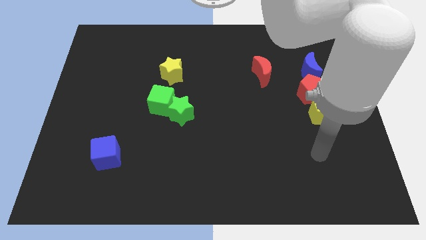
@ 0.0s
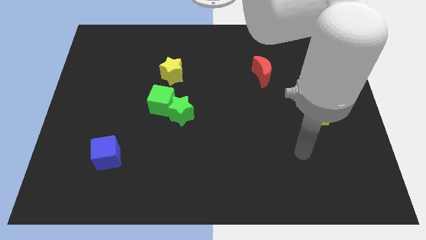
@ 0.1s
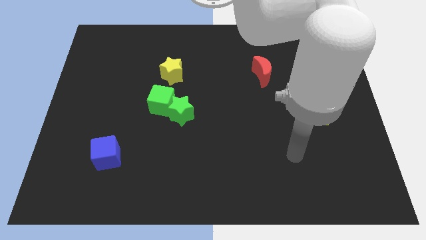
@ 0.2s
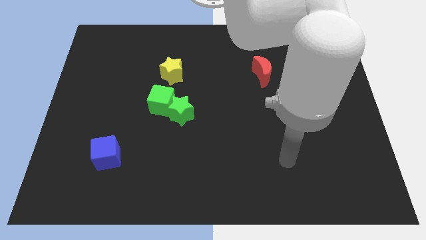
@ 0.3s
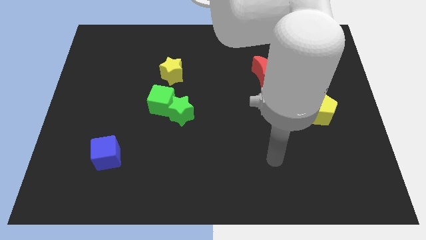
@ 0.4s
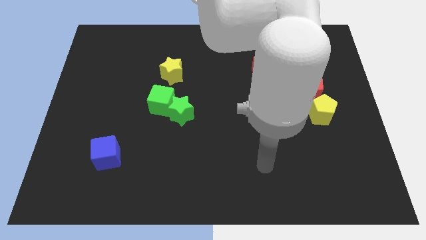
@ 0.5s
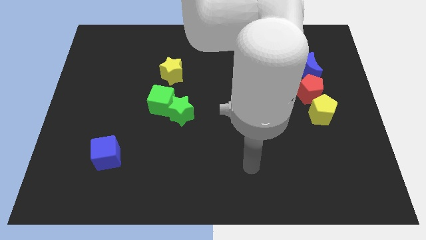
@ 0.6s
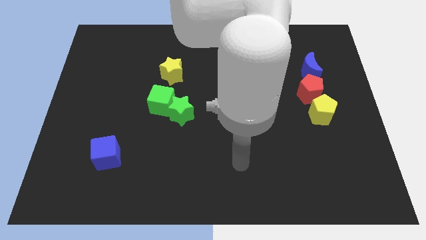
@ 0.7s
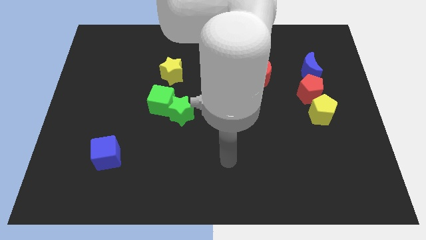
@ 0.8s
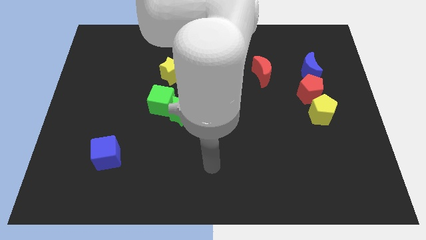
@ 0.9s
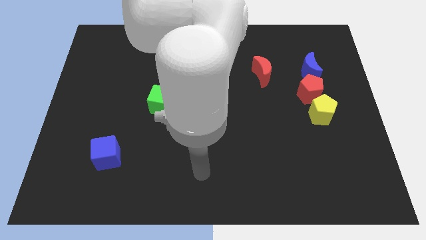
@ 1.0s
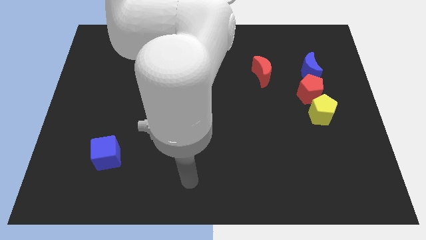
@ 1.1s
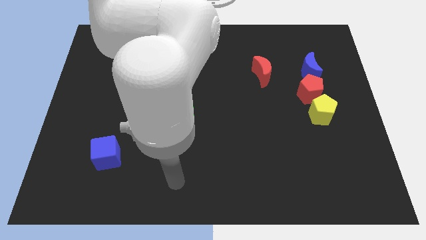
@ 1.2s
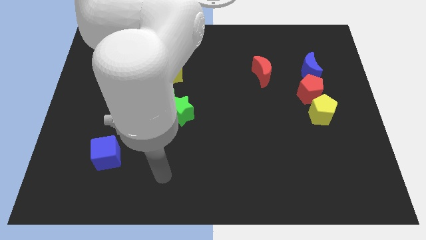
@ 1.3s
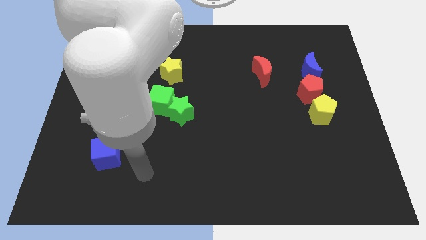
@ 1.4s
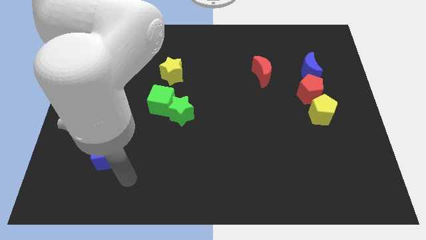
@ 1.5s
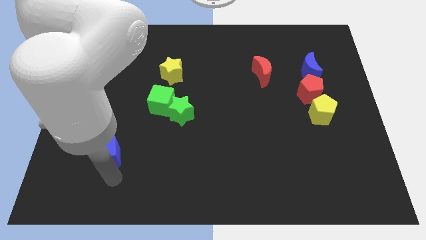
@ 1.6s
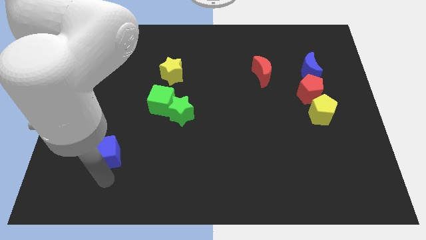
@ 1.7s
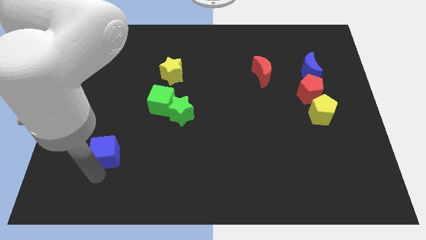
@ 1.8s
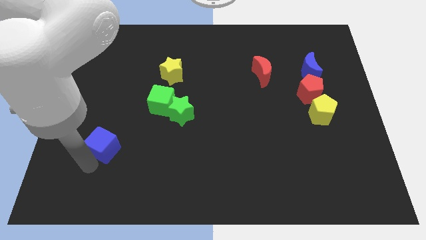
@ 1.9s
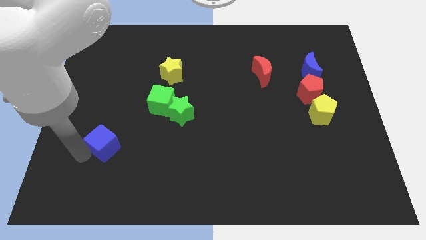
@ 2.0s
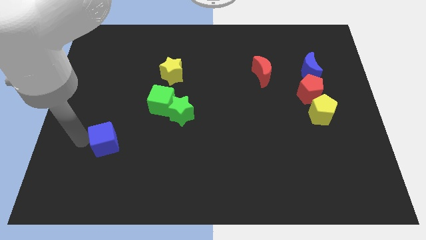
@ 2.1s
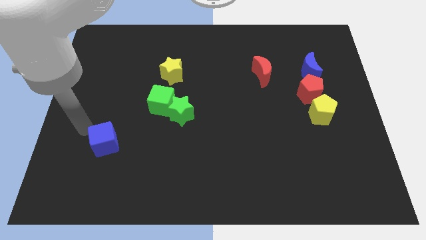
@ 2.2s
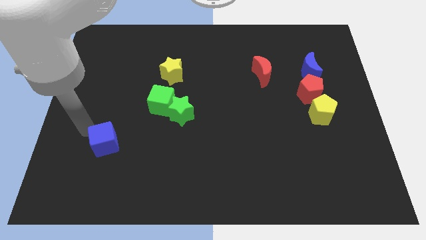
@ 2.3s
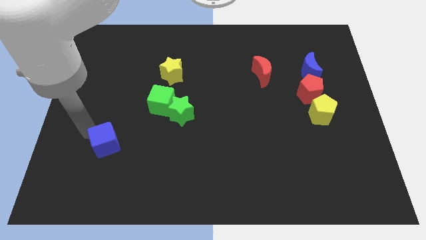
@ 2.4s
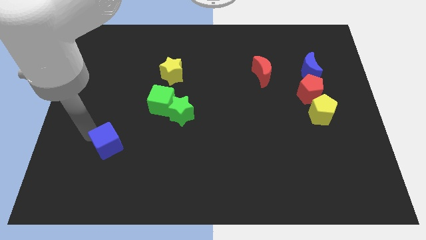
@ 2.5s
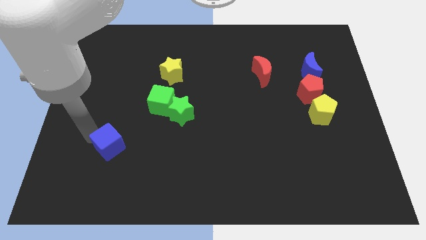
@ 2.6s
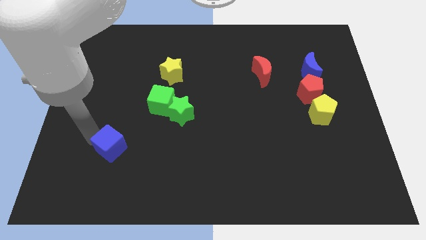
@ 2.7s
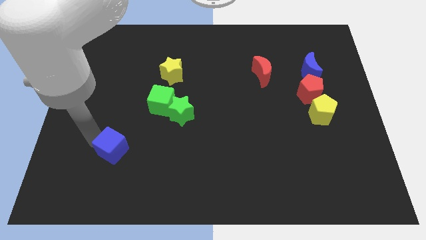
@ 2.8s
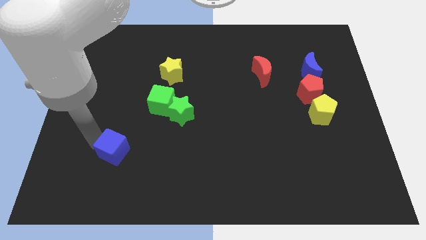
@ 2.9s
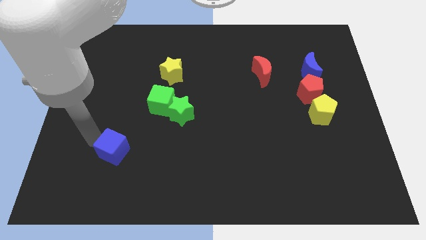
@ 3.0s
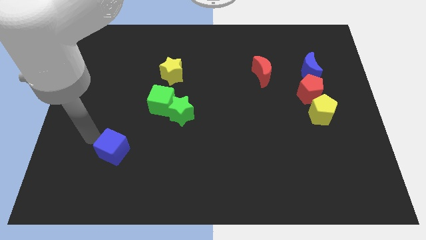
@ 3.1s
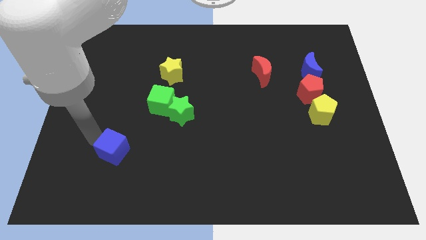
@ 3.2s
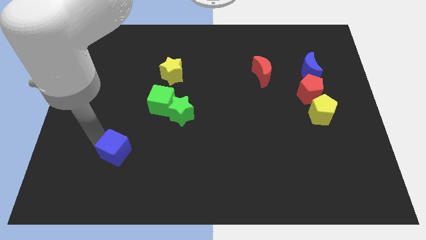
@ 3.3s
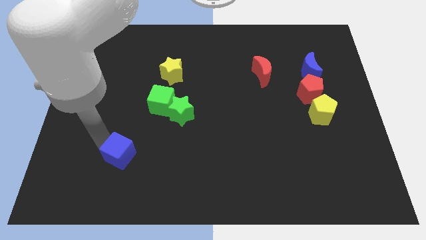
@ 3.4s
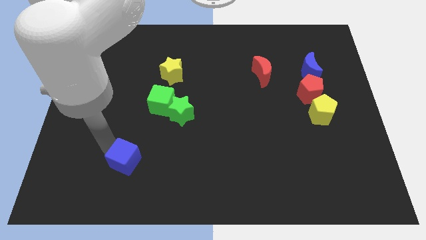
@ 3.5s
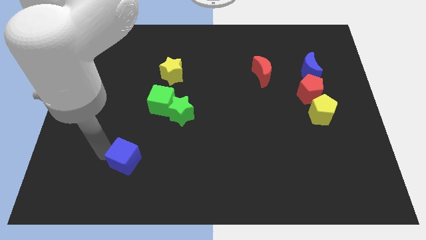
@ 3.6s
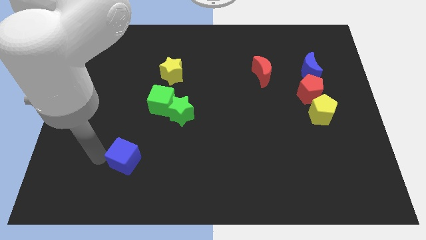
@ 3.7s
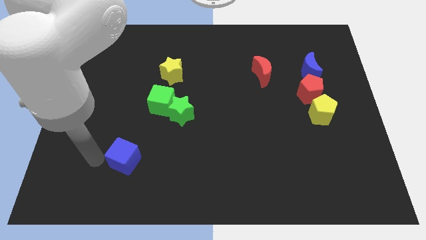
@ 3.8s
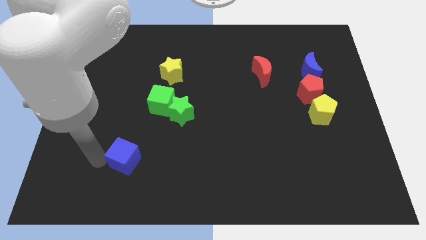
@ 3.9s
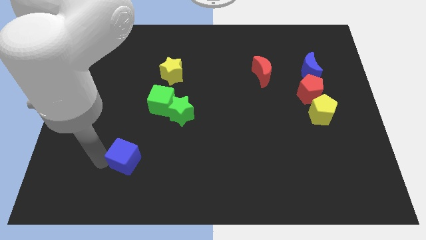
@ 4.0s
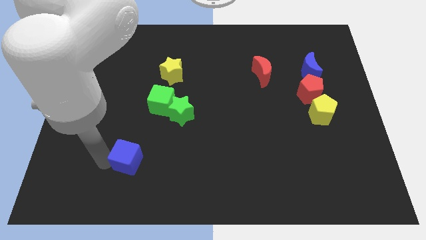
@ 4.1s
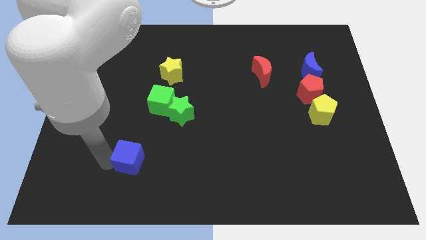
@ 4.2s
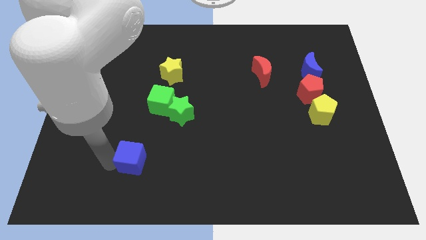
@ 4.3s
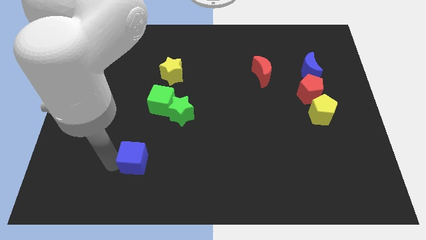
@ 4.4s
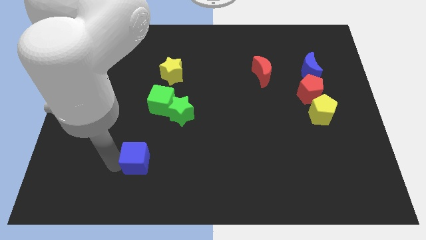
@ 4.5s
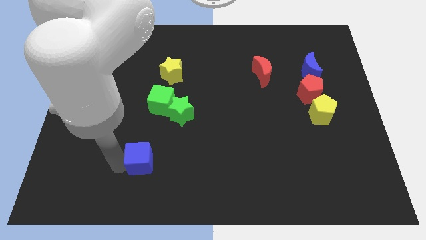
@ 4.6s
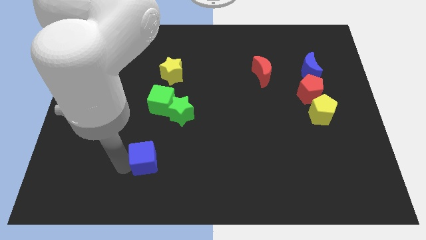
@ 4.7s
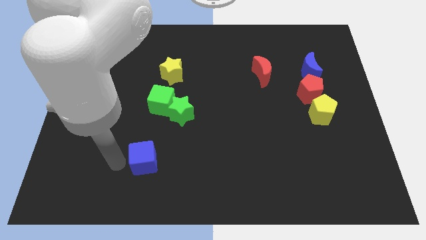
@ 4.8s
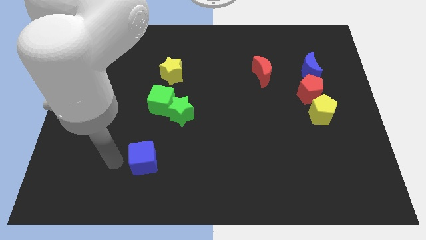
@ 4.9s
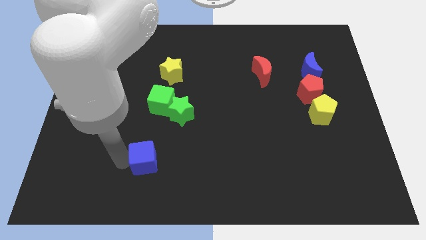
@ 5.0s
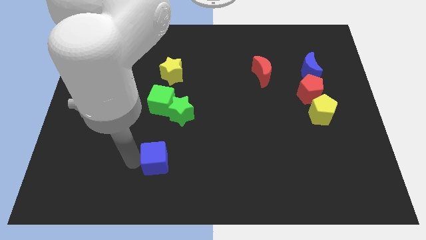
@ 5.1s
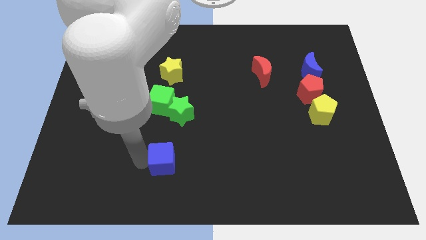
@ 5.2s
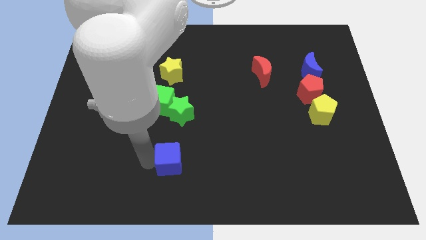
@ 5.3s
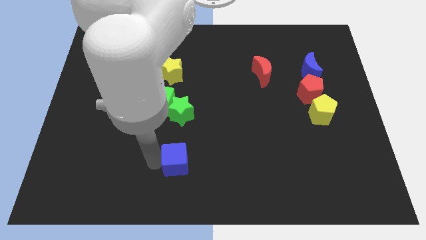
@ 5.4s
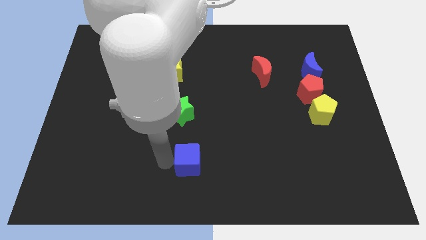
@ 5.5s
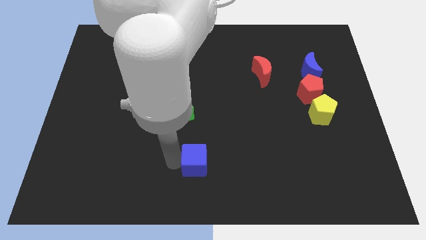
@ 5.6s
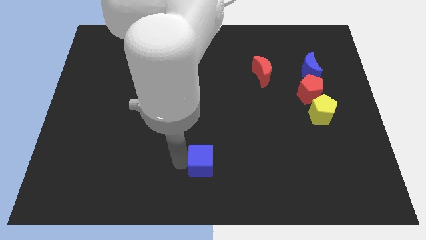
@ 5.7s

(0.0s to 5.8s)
slide the blue cube to the right

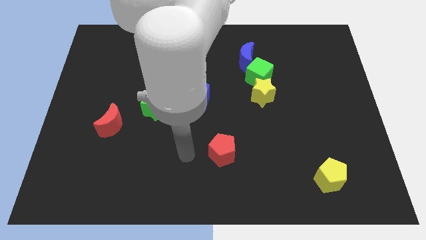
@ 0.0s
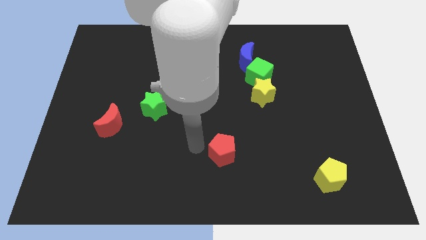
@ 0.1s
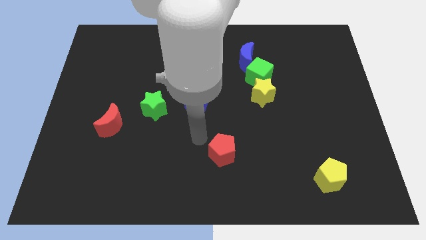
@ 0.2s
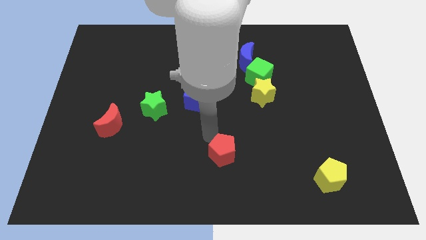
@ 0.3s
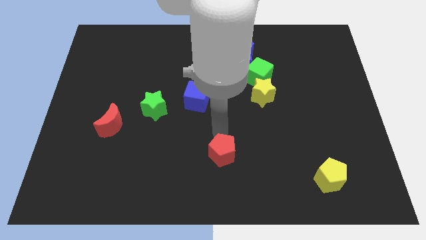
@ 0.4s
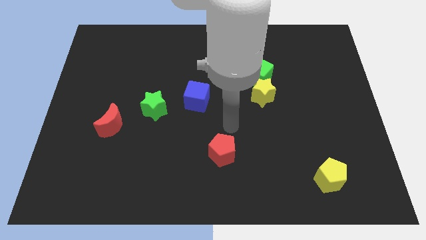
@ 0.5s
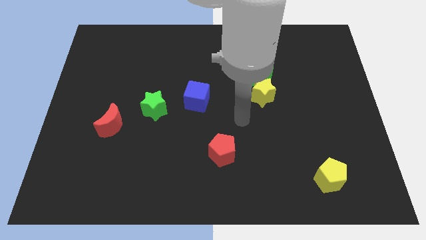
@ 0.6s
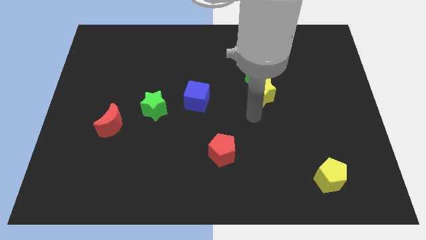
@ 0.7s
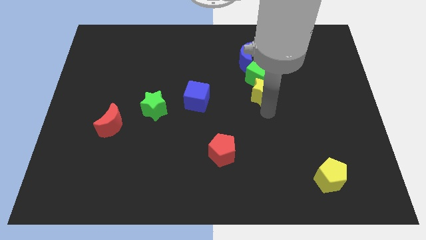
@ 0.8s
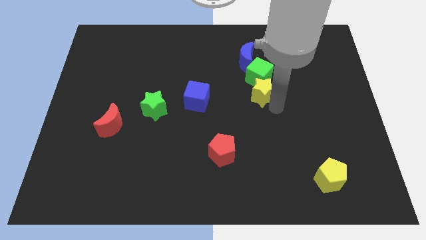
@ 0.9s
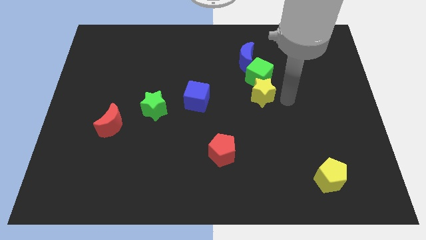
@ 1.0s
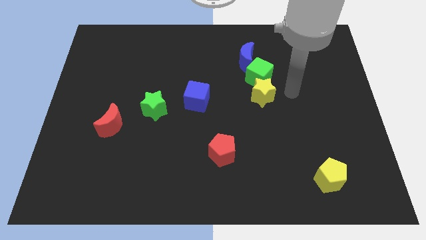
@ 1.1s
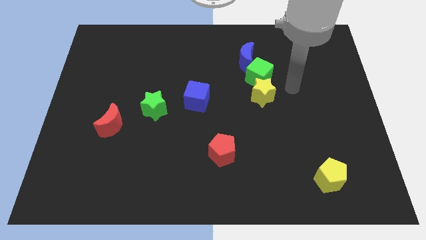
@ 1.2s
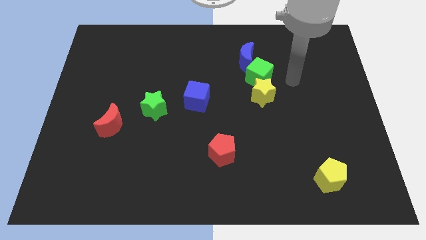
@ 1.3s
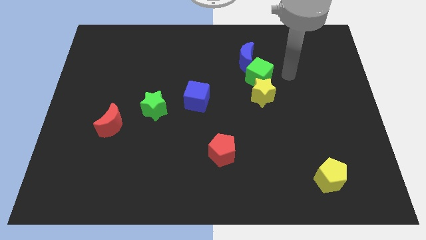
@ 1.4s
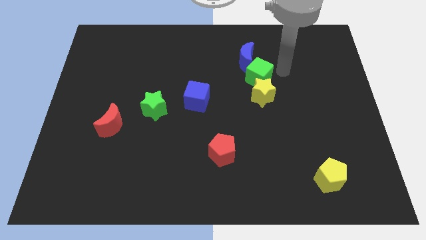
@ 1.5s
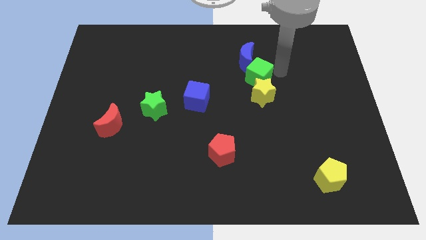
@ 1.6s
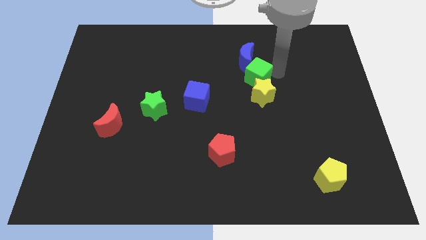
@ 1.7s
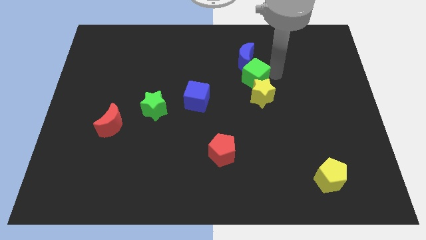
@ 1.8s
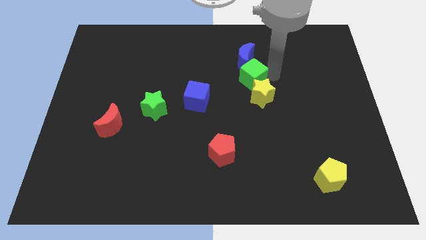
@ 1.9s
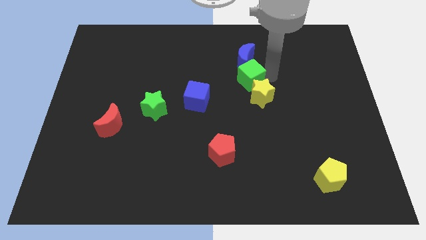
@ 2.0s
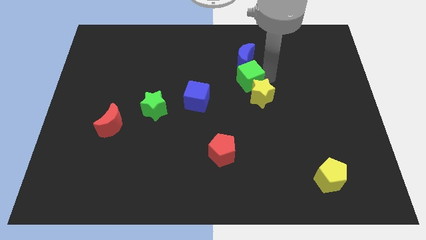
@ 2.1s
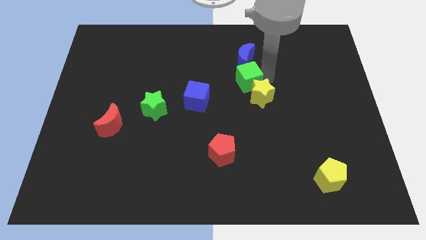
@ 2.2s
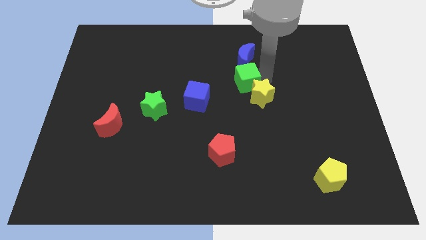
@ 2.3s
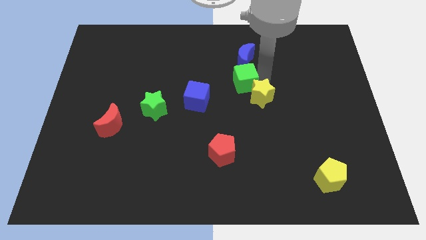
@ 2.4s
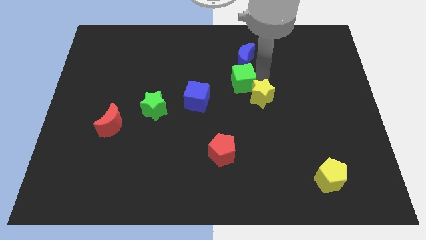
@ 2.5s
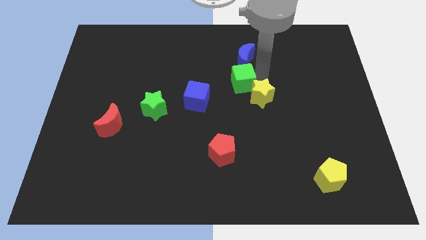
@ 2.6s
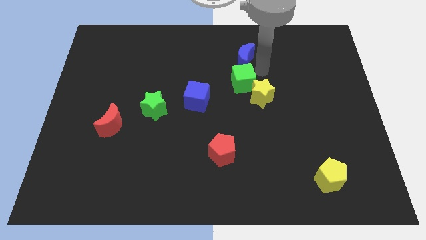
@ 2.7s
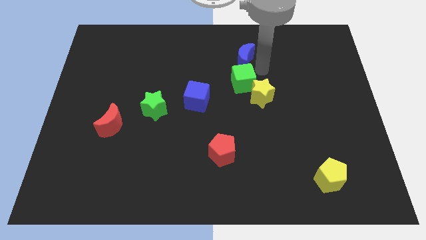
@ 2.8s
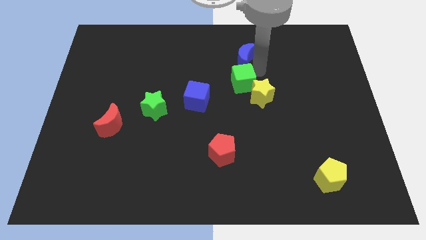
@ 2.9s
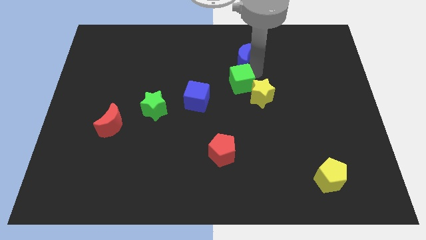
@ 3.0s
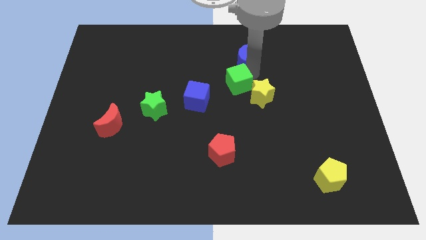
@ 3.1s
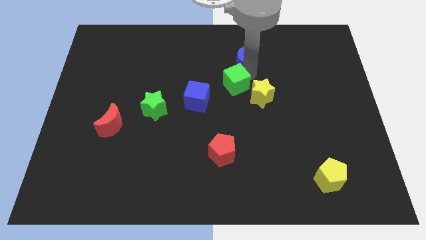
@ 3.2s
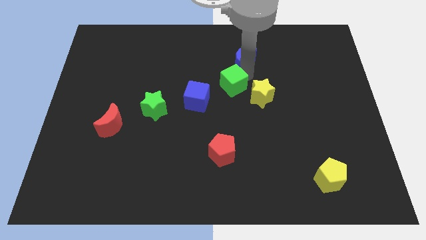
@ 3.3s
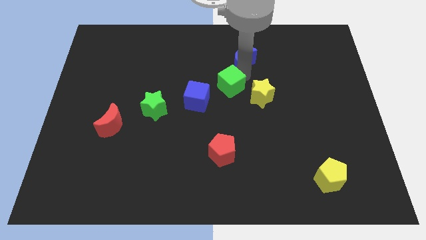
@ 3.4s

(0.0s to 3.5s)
move the green cube a bit downwards and to the left
